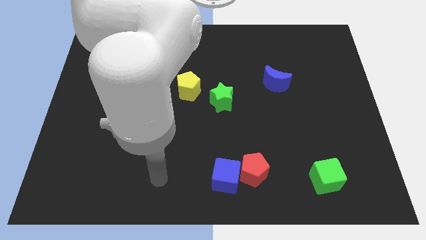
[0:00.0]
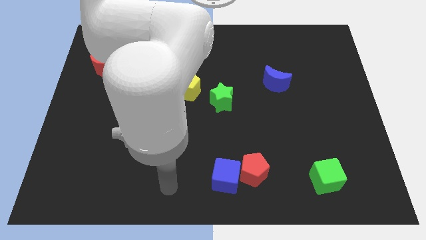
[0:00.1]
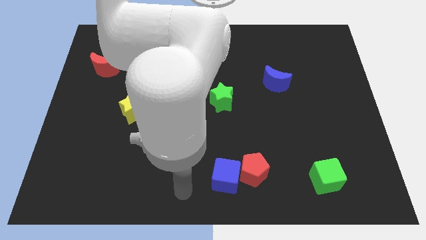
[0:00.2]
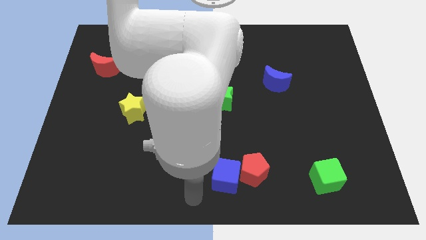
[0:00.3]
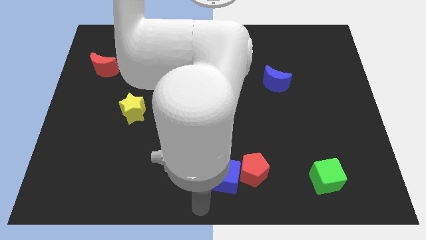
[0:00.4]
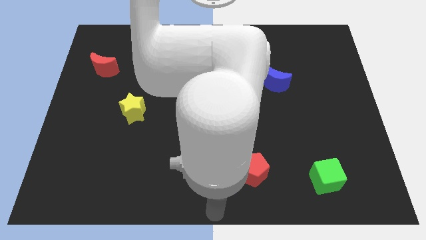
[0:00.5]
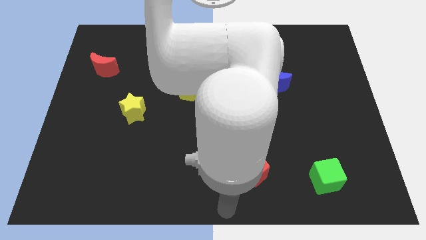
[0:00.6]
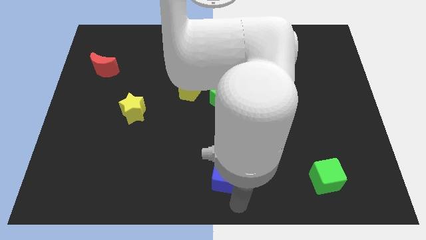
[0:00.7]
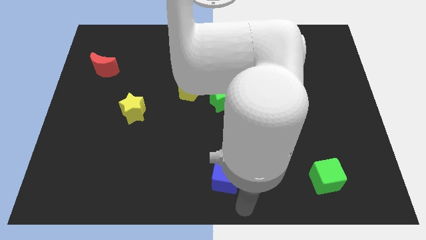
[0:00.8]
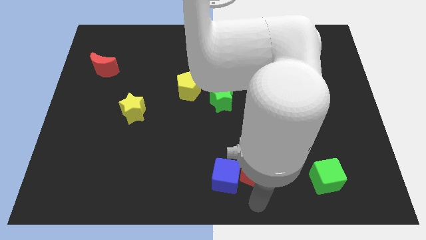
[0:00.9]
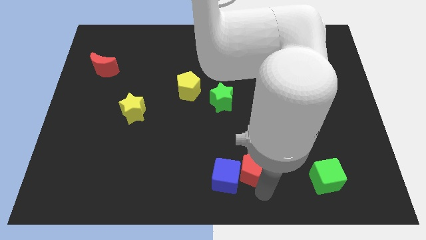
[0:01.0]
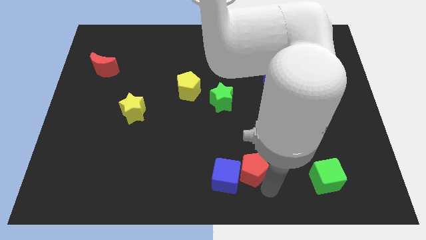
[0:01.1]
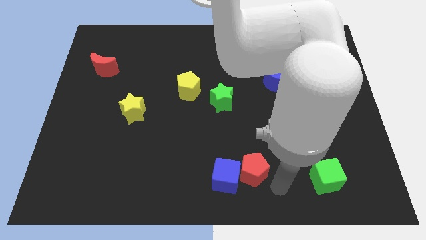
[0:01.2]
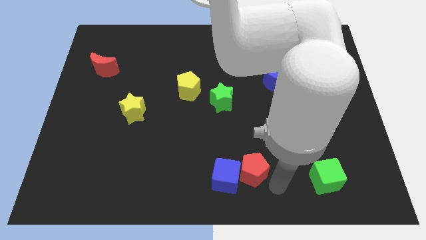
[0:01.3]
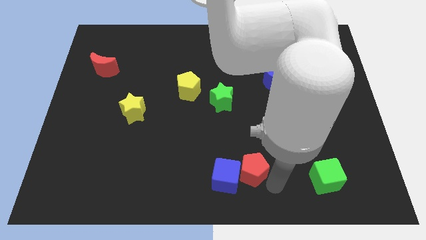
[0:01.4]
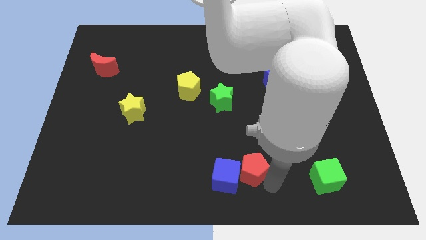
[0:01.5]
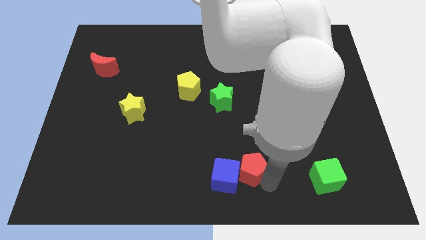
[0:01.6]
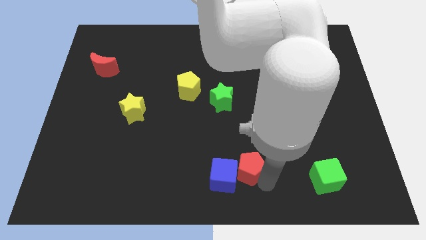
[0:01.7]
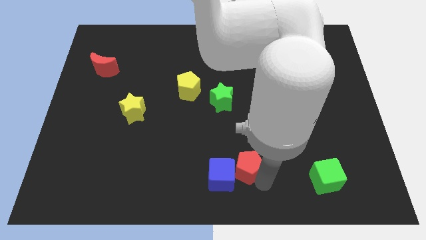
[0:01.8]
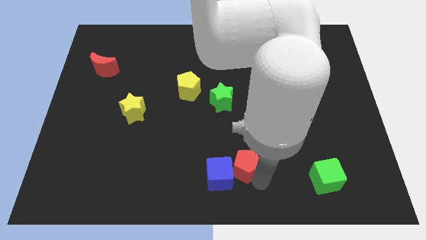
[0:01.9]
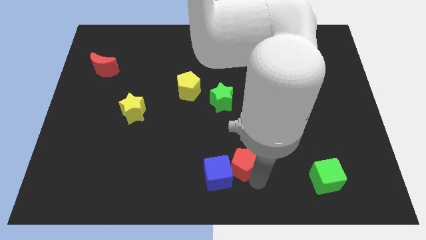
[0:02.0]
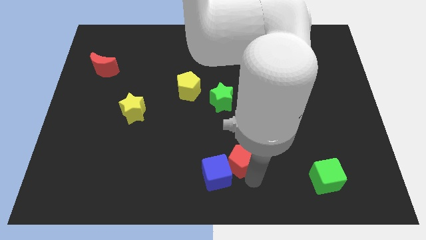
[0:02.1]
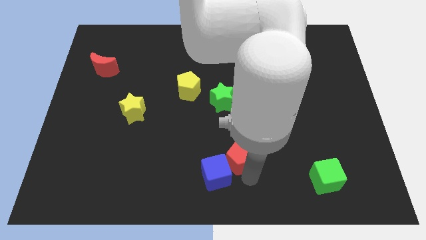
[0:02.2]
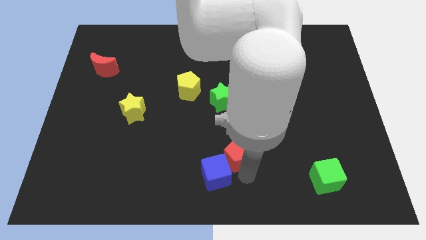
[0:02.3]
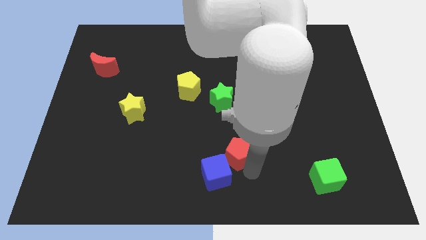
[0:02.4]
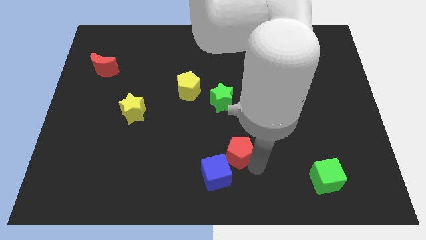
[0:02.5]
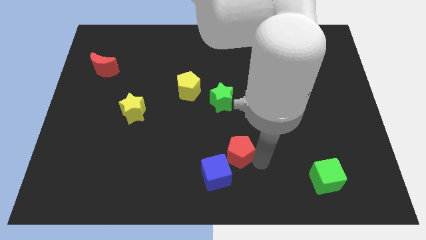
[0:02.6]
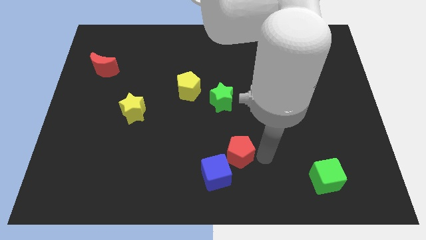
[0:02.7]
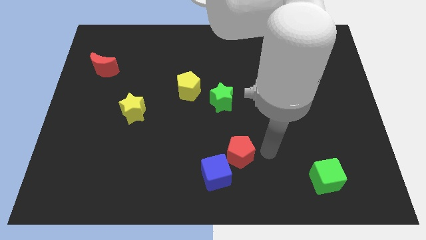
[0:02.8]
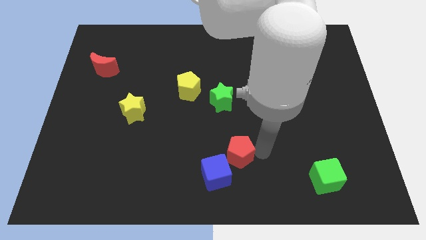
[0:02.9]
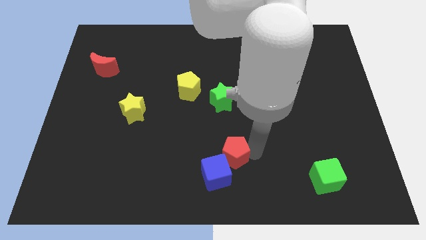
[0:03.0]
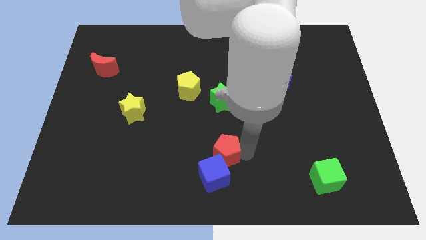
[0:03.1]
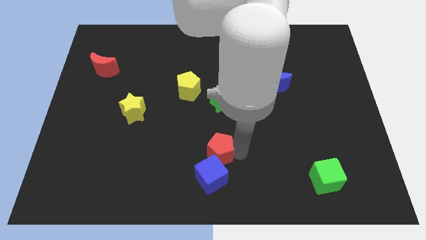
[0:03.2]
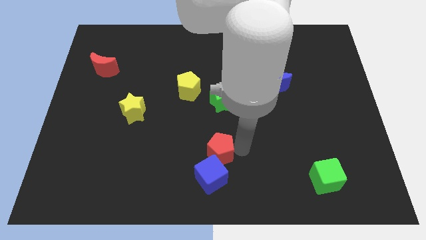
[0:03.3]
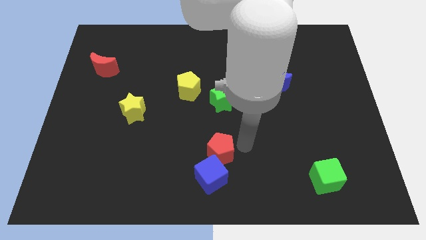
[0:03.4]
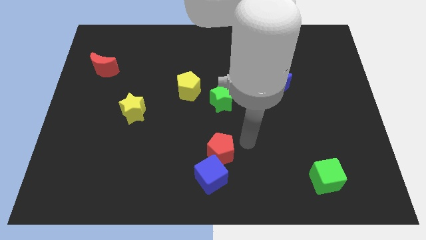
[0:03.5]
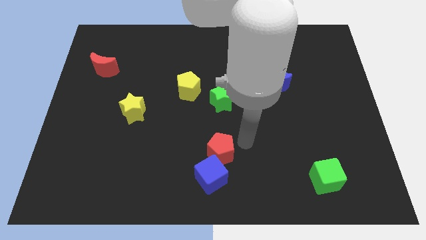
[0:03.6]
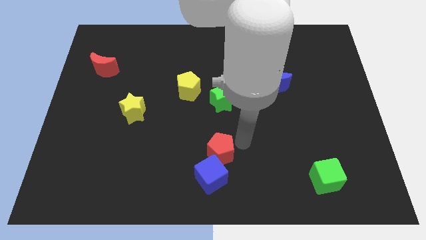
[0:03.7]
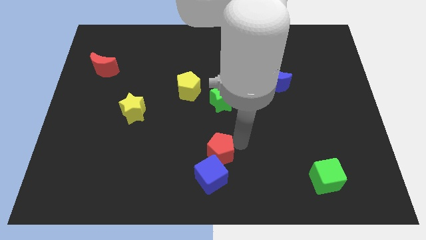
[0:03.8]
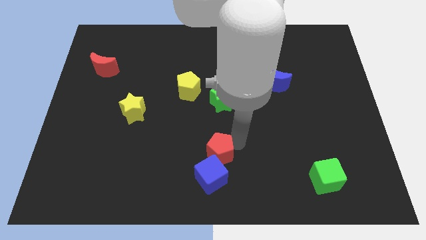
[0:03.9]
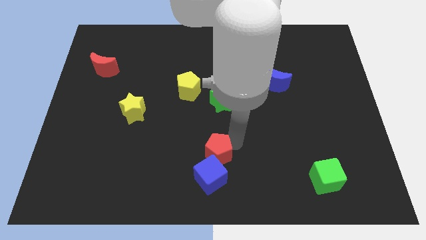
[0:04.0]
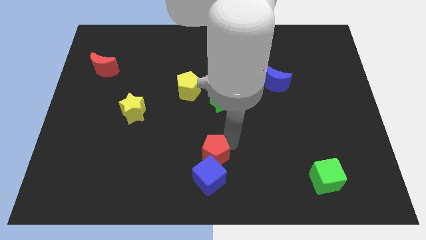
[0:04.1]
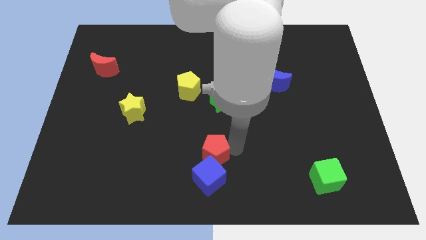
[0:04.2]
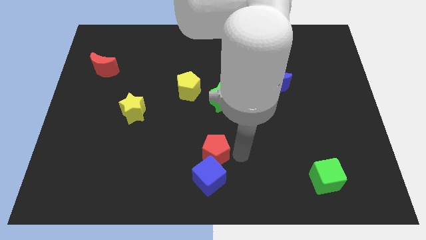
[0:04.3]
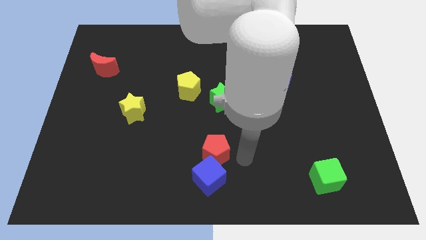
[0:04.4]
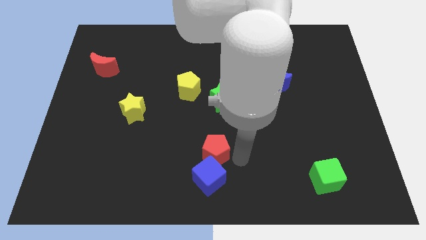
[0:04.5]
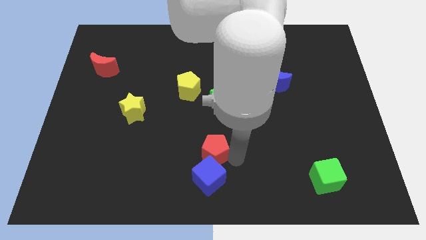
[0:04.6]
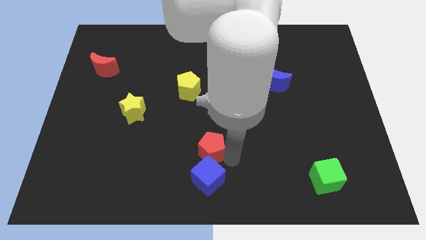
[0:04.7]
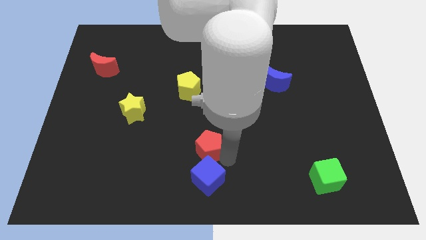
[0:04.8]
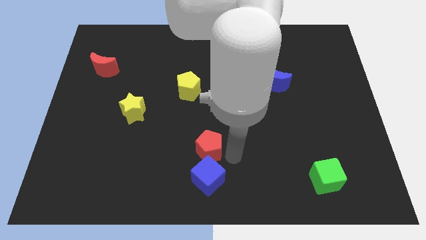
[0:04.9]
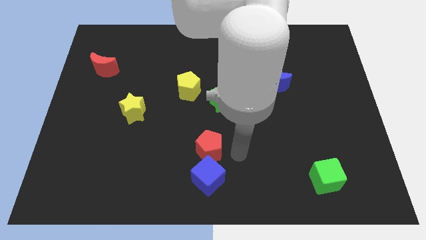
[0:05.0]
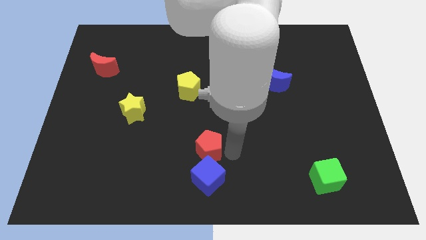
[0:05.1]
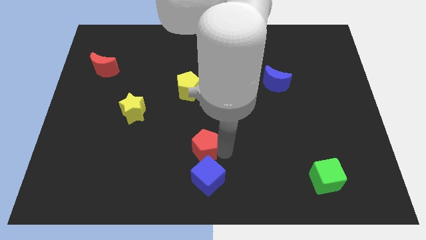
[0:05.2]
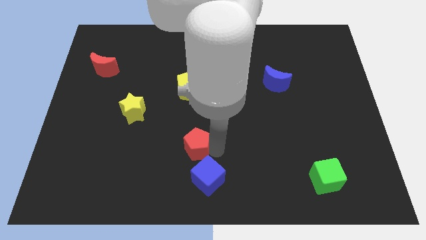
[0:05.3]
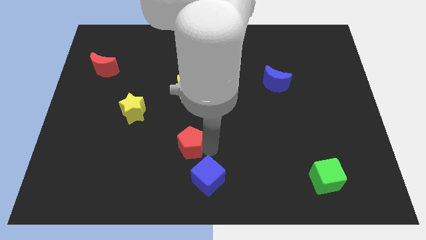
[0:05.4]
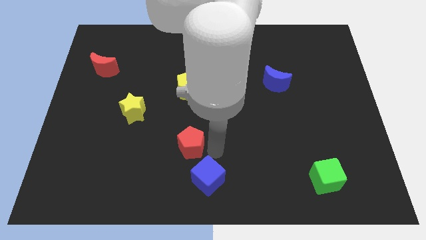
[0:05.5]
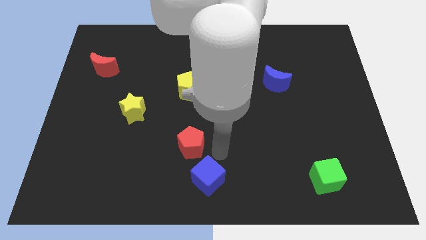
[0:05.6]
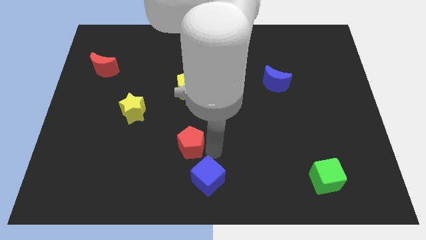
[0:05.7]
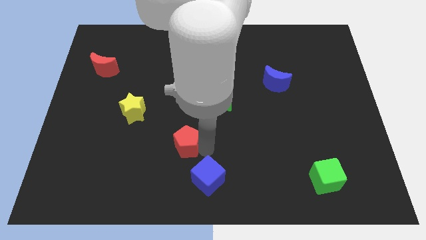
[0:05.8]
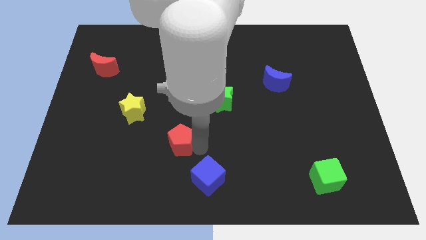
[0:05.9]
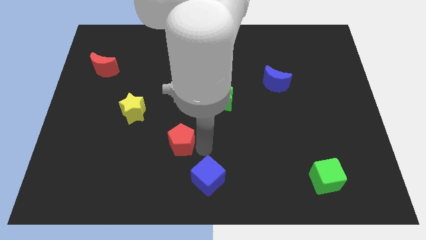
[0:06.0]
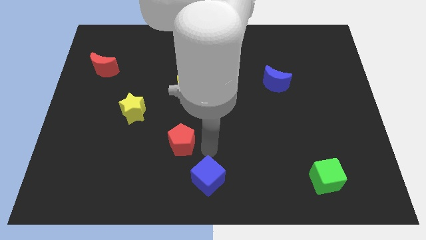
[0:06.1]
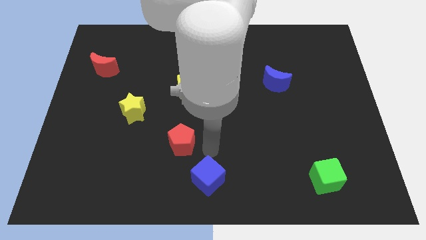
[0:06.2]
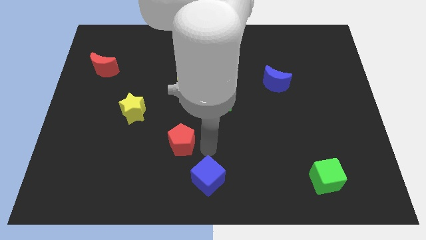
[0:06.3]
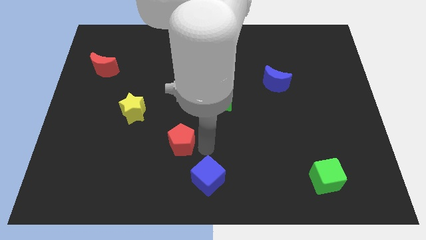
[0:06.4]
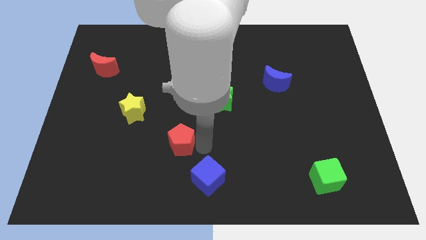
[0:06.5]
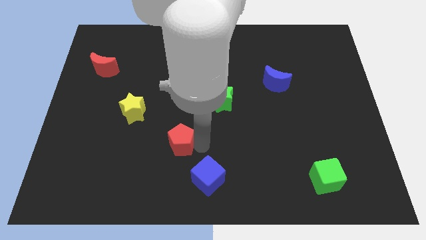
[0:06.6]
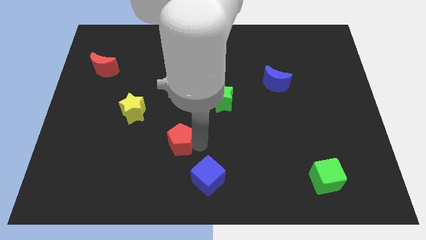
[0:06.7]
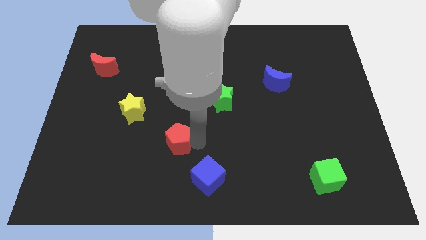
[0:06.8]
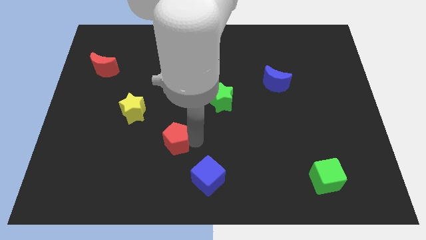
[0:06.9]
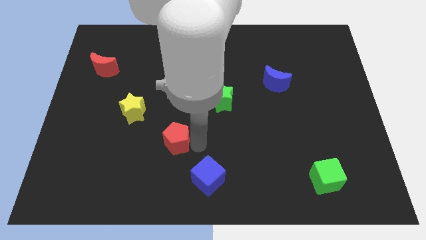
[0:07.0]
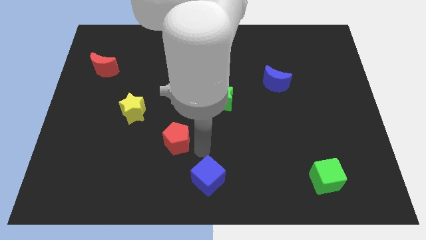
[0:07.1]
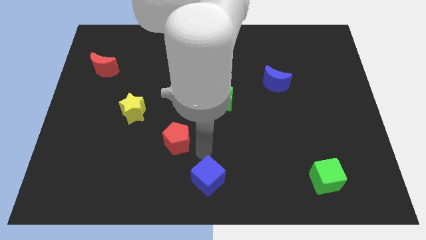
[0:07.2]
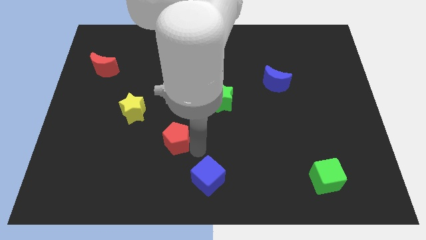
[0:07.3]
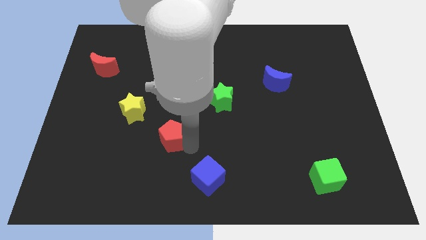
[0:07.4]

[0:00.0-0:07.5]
move the red pentagon to the bottom right side of the yellow star

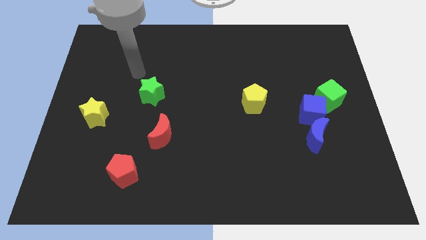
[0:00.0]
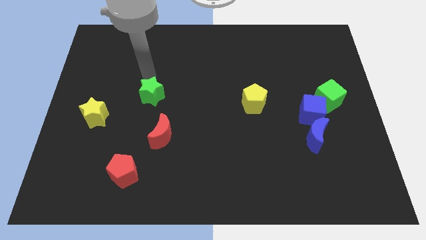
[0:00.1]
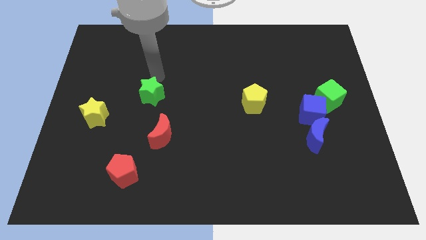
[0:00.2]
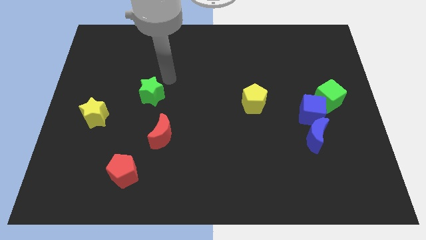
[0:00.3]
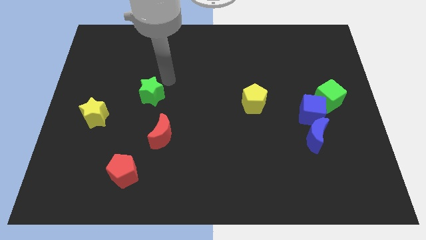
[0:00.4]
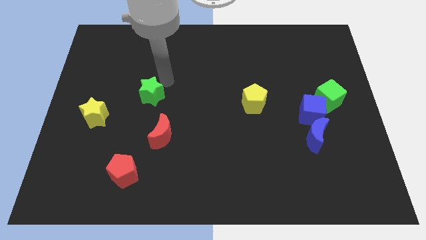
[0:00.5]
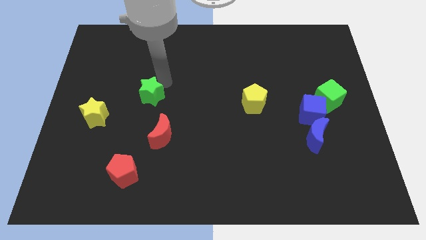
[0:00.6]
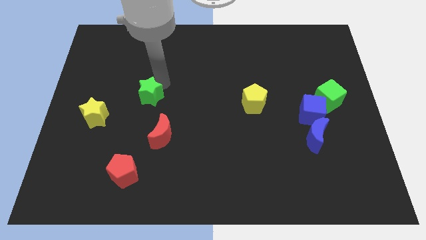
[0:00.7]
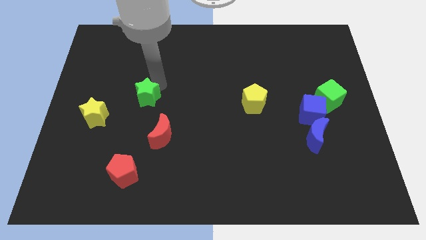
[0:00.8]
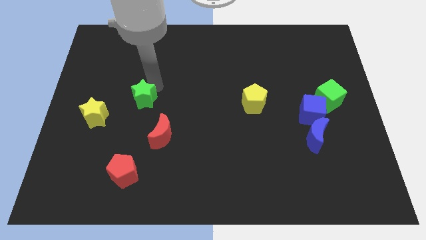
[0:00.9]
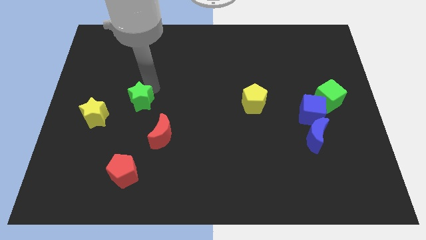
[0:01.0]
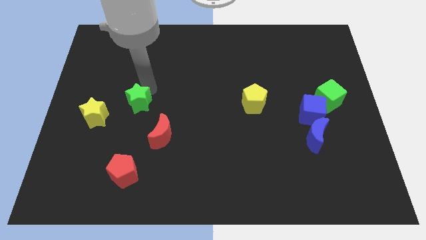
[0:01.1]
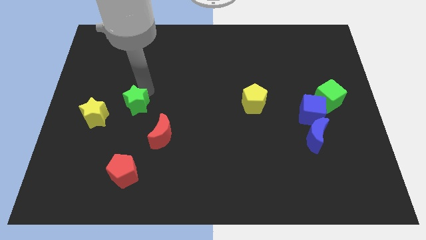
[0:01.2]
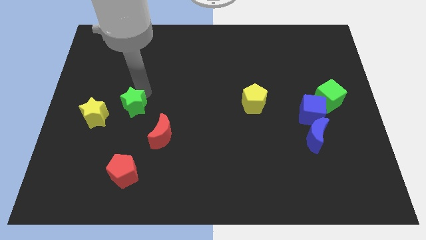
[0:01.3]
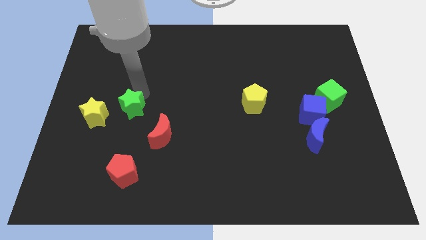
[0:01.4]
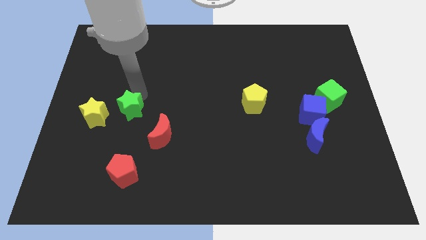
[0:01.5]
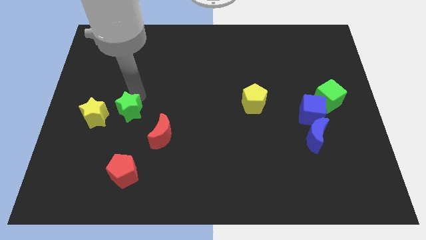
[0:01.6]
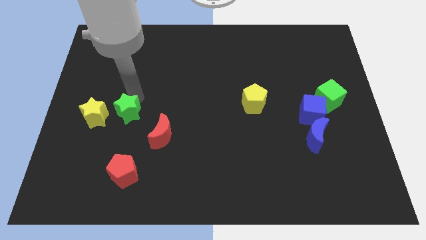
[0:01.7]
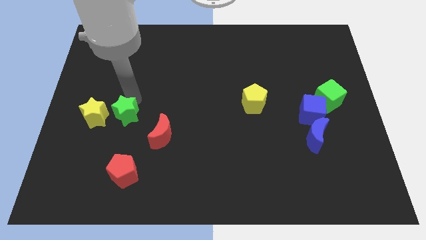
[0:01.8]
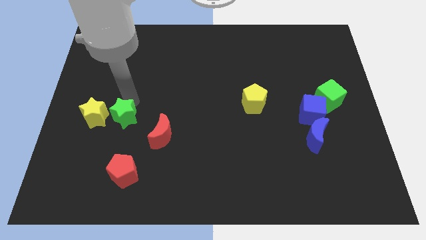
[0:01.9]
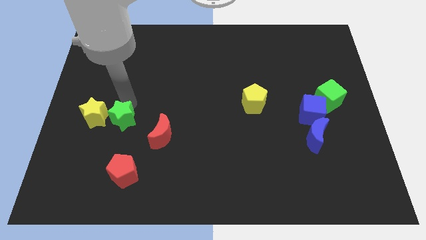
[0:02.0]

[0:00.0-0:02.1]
move the green star to the left side of the red moon
